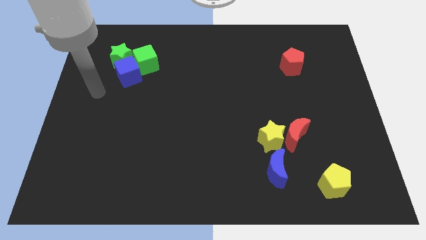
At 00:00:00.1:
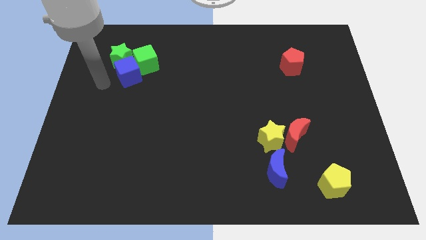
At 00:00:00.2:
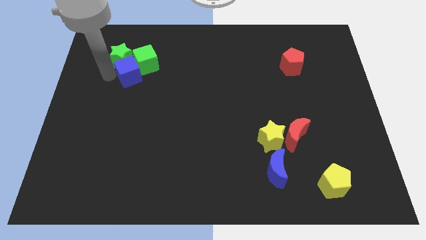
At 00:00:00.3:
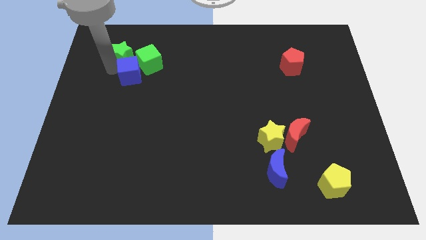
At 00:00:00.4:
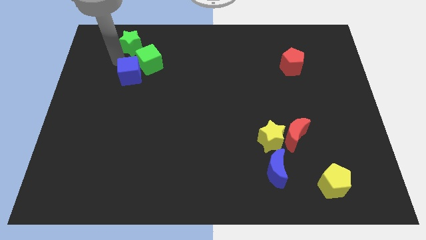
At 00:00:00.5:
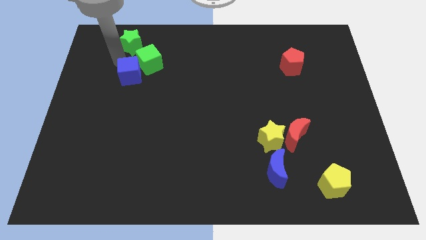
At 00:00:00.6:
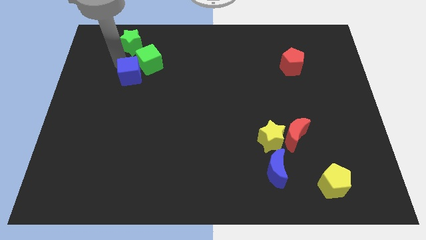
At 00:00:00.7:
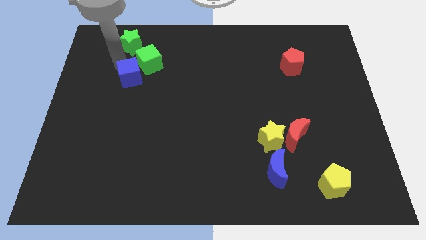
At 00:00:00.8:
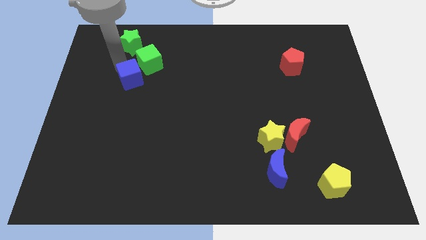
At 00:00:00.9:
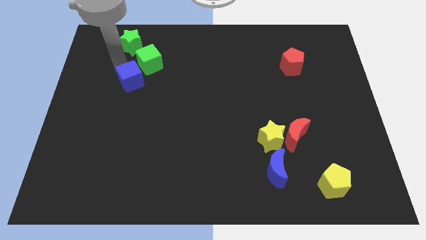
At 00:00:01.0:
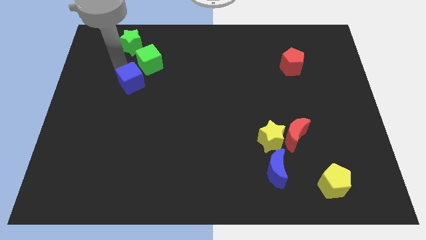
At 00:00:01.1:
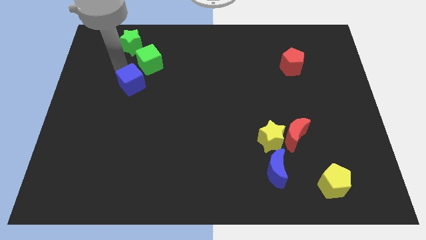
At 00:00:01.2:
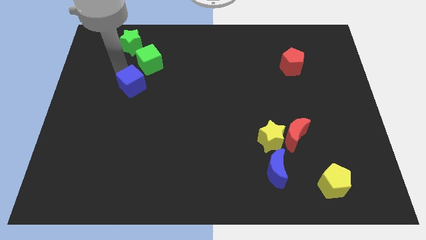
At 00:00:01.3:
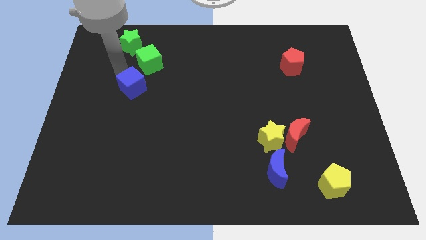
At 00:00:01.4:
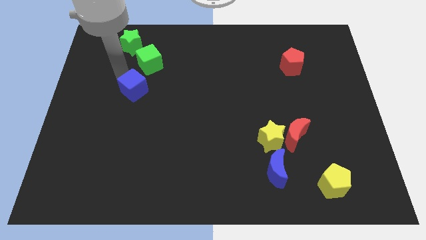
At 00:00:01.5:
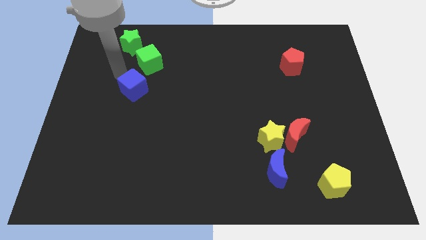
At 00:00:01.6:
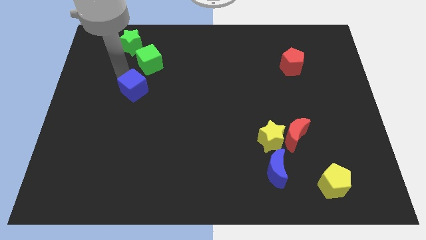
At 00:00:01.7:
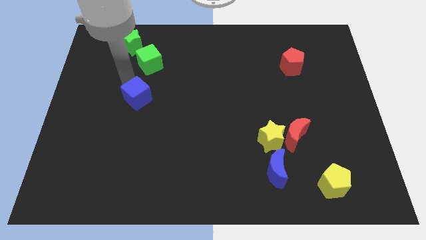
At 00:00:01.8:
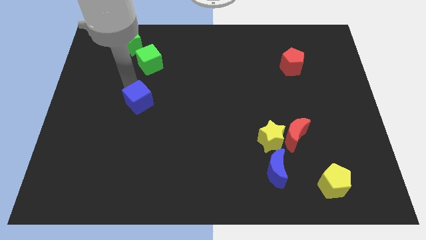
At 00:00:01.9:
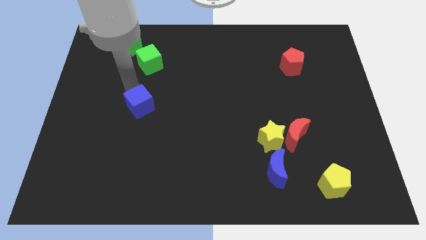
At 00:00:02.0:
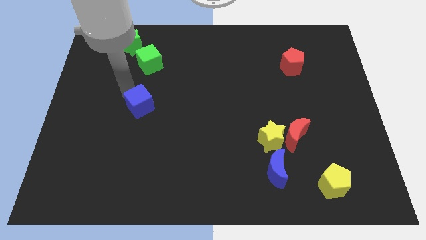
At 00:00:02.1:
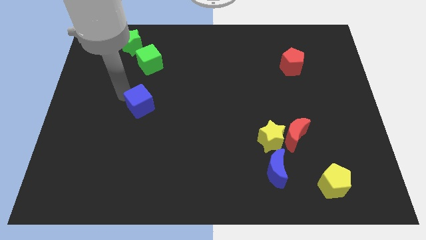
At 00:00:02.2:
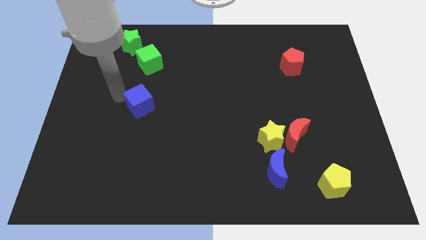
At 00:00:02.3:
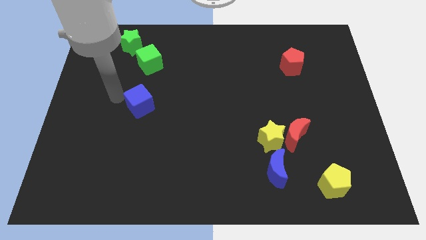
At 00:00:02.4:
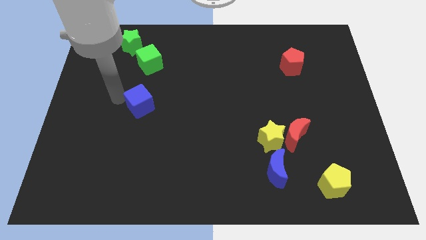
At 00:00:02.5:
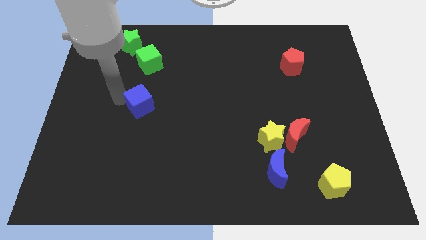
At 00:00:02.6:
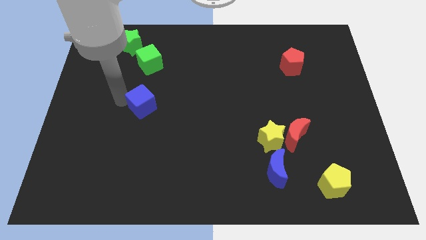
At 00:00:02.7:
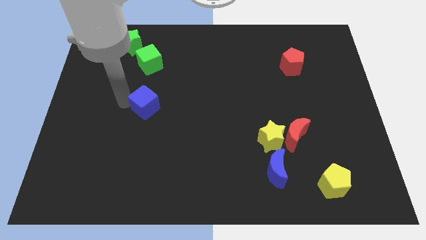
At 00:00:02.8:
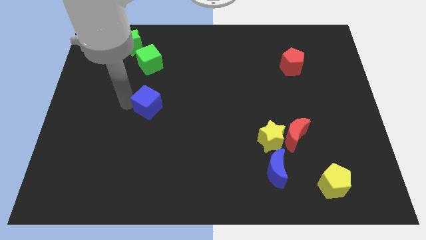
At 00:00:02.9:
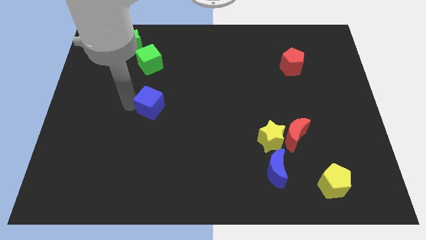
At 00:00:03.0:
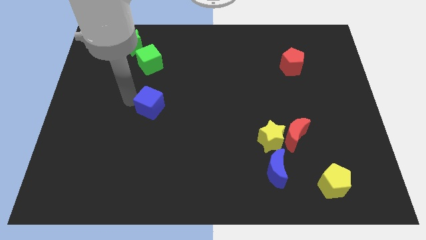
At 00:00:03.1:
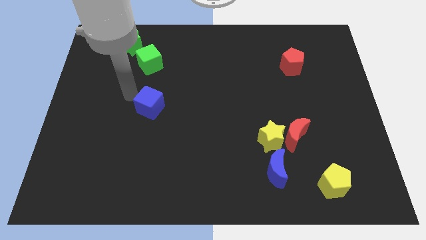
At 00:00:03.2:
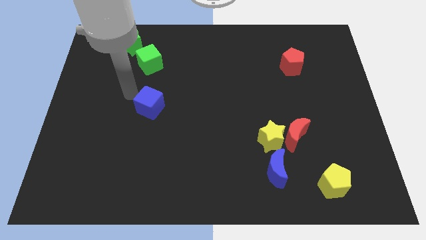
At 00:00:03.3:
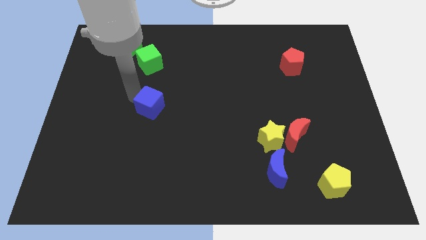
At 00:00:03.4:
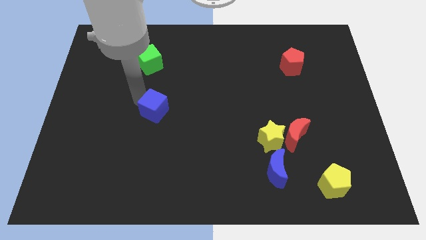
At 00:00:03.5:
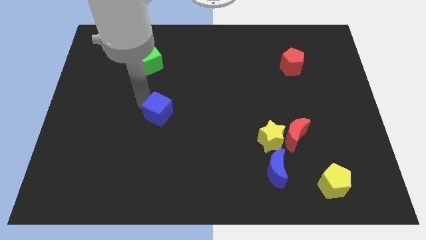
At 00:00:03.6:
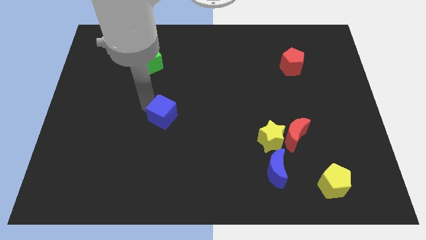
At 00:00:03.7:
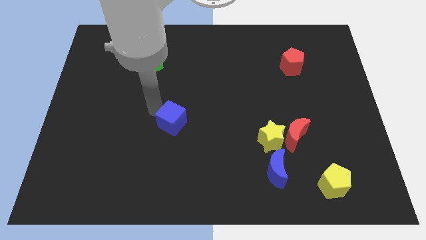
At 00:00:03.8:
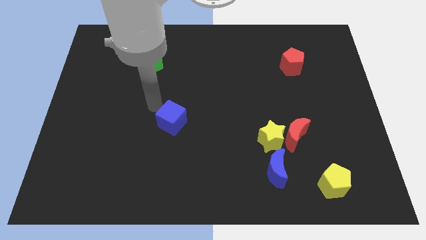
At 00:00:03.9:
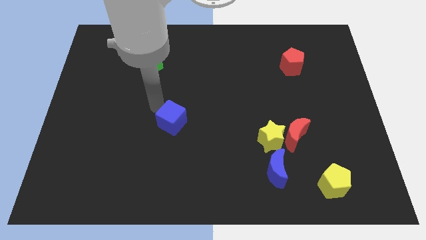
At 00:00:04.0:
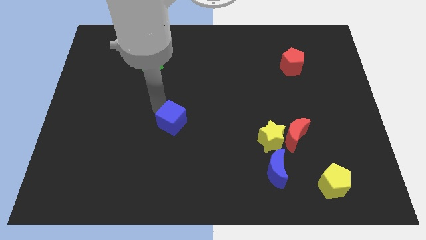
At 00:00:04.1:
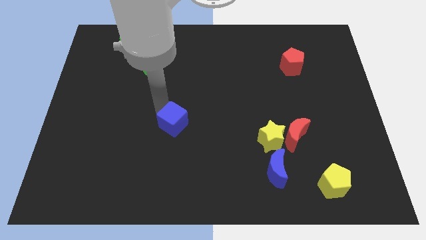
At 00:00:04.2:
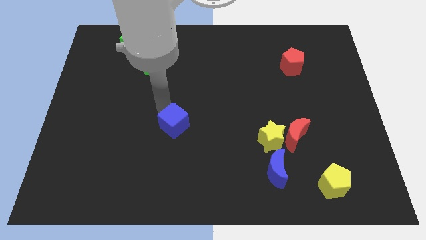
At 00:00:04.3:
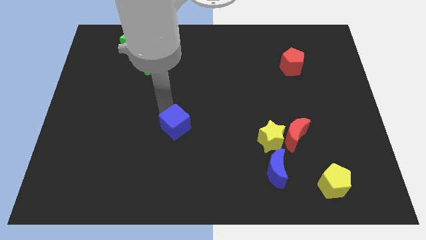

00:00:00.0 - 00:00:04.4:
push the blue cube downwards and then right

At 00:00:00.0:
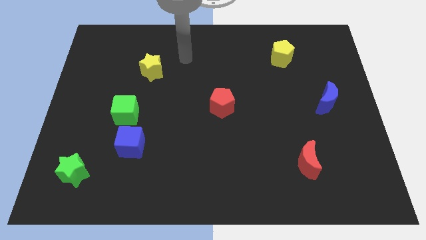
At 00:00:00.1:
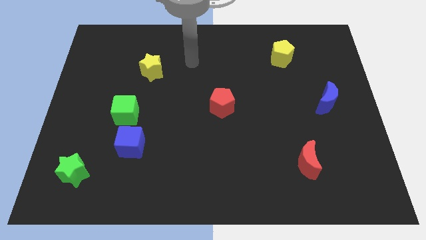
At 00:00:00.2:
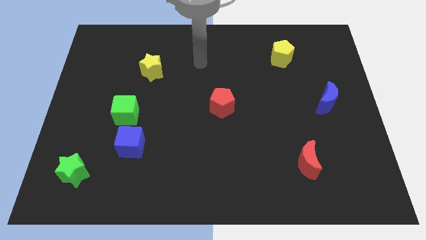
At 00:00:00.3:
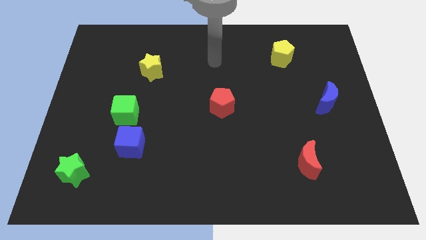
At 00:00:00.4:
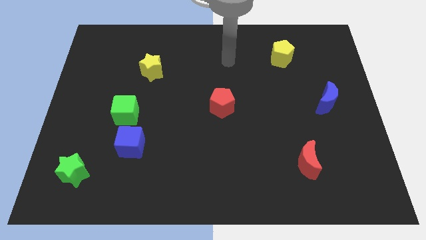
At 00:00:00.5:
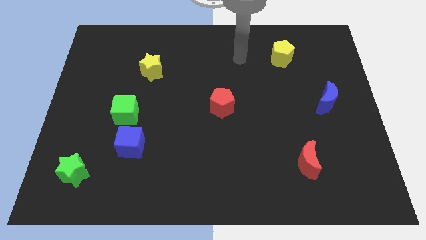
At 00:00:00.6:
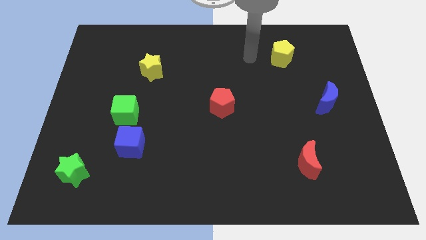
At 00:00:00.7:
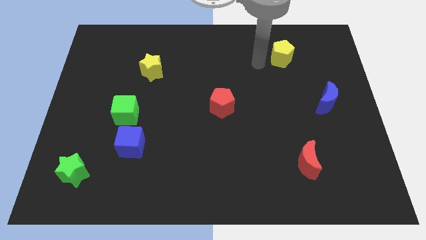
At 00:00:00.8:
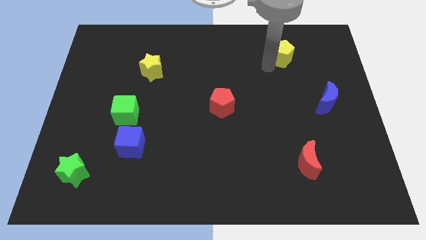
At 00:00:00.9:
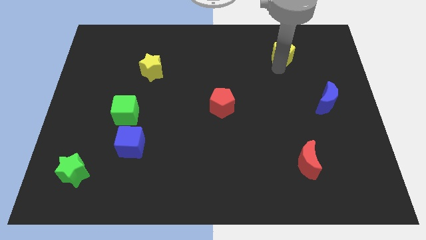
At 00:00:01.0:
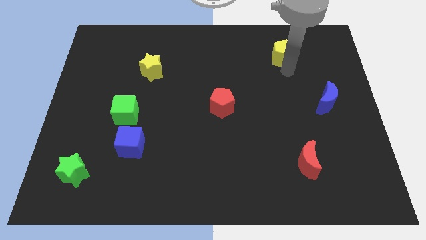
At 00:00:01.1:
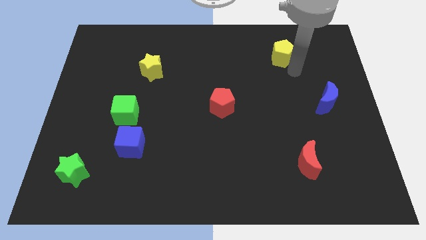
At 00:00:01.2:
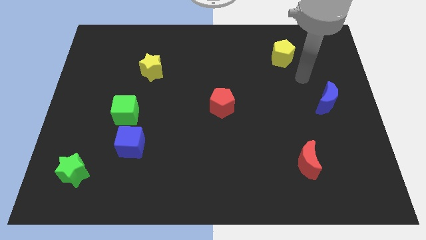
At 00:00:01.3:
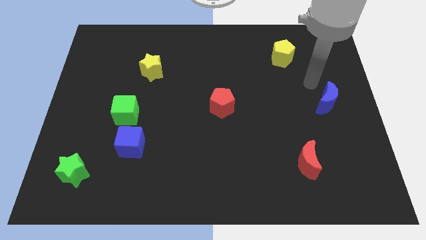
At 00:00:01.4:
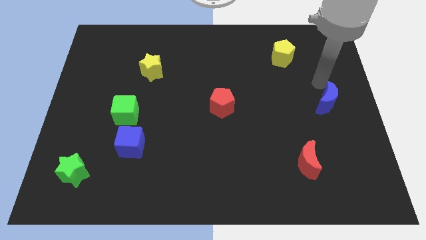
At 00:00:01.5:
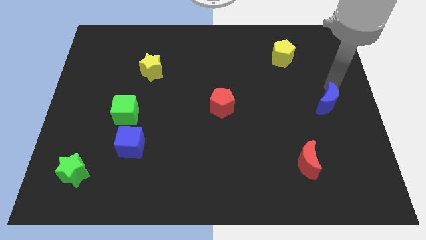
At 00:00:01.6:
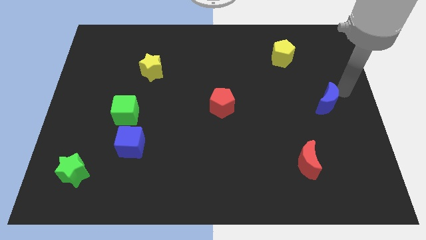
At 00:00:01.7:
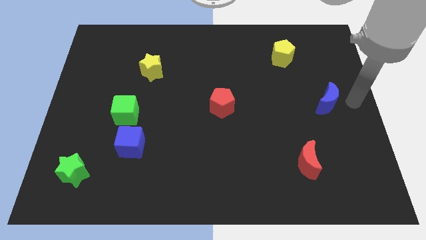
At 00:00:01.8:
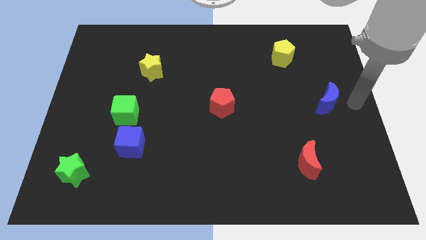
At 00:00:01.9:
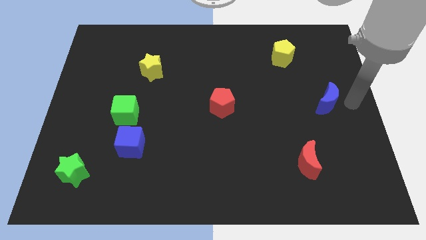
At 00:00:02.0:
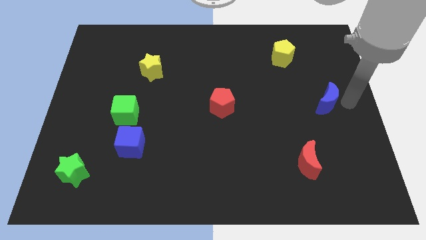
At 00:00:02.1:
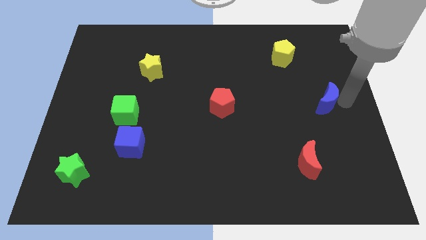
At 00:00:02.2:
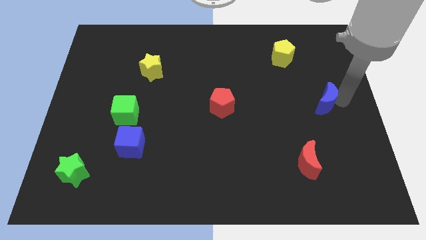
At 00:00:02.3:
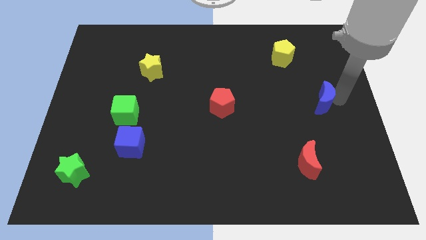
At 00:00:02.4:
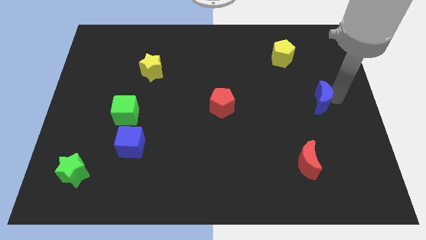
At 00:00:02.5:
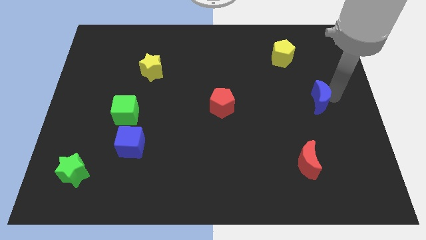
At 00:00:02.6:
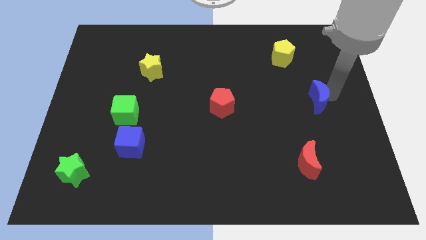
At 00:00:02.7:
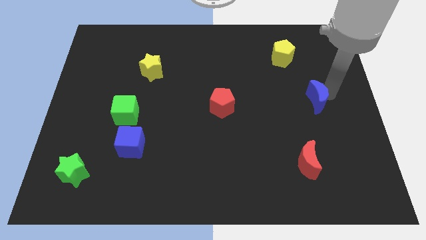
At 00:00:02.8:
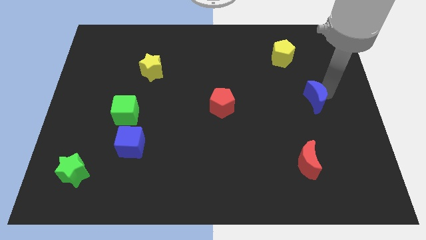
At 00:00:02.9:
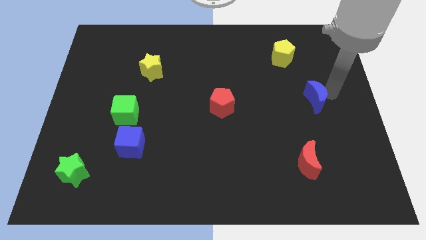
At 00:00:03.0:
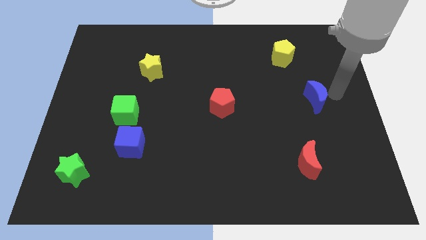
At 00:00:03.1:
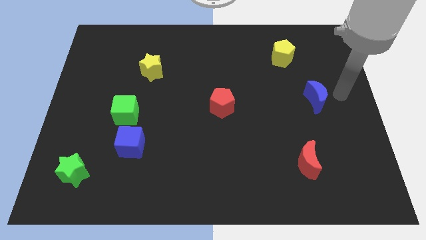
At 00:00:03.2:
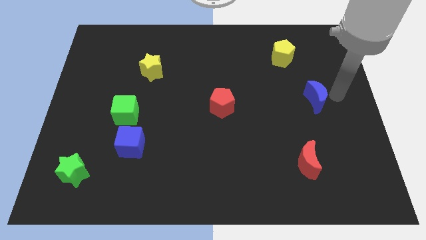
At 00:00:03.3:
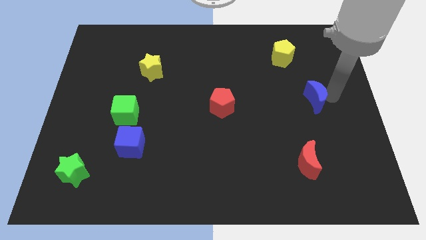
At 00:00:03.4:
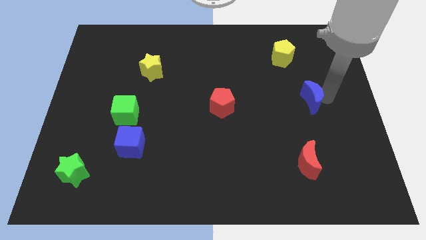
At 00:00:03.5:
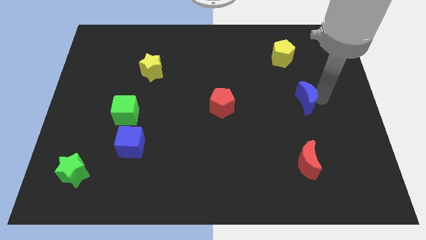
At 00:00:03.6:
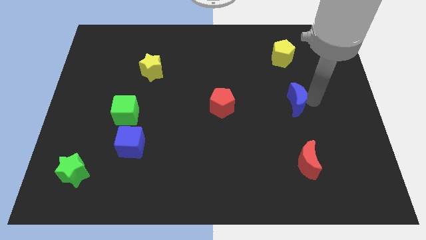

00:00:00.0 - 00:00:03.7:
slightly push the blue moon left
